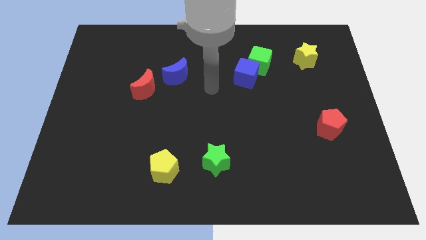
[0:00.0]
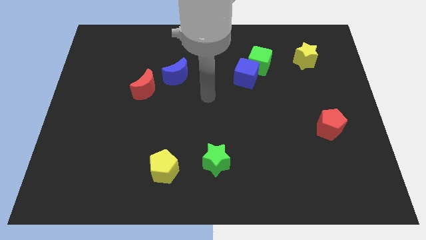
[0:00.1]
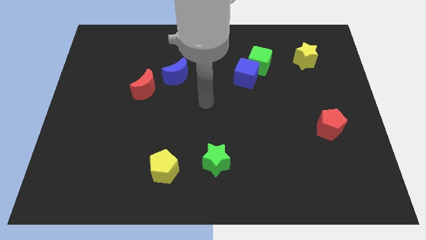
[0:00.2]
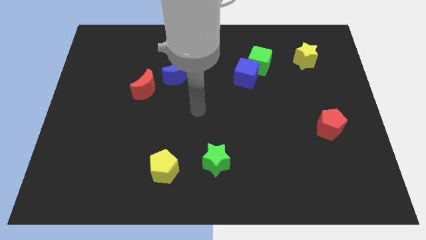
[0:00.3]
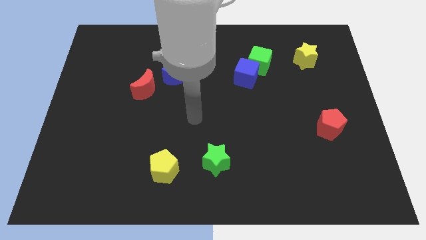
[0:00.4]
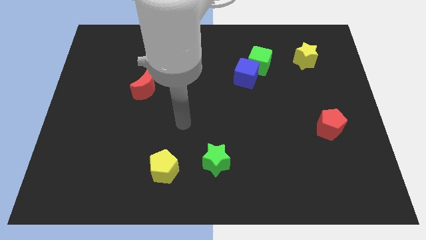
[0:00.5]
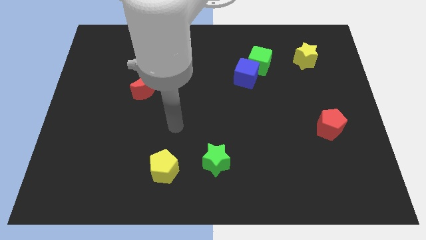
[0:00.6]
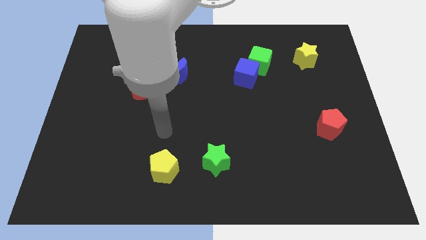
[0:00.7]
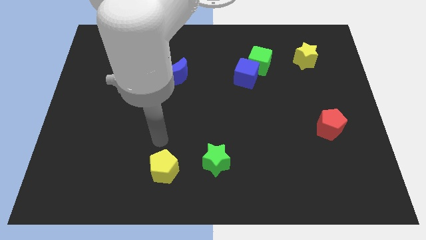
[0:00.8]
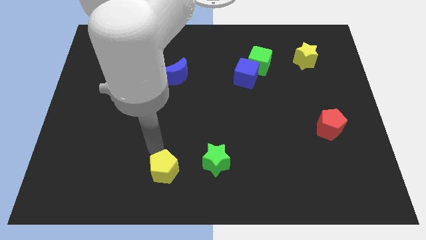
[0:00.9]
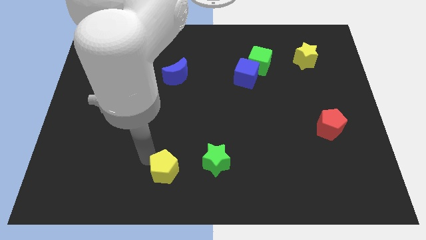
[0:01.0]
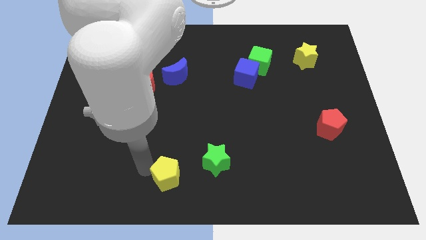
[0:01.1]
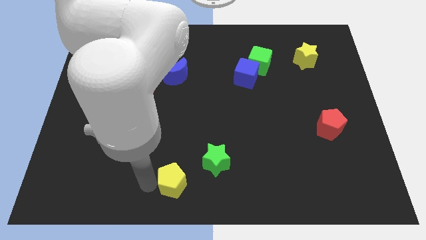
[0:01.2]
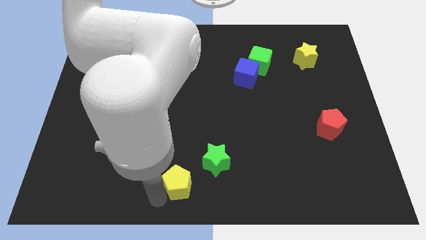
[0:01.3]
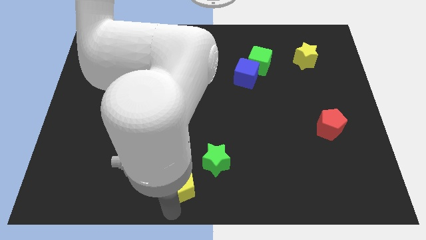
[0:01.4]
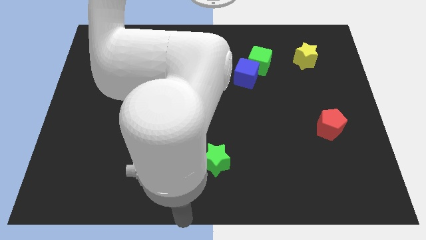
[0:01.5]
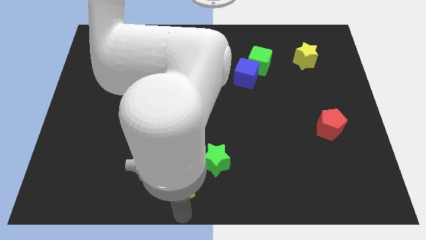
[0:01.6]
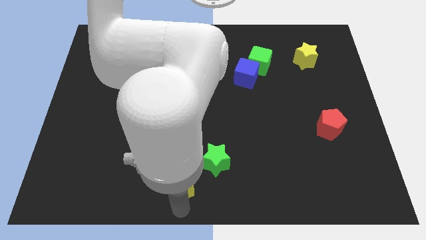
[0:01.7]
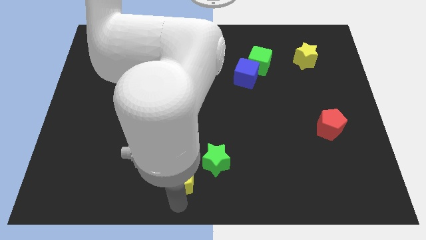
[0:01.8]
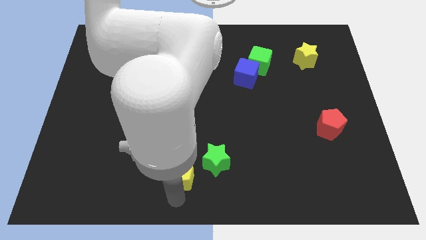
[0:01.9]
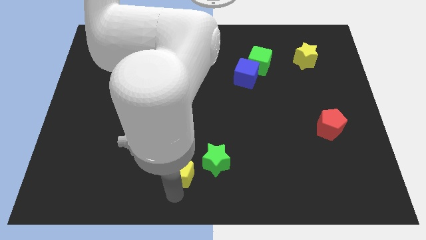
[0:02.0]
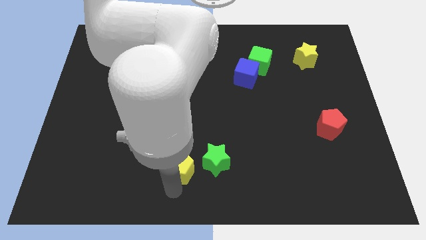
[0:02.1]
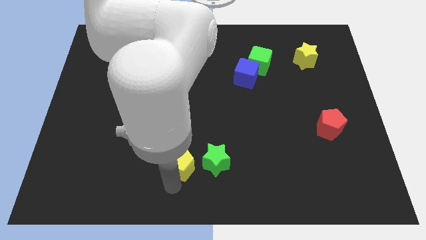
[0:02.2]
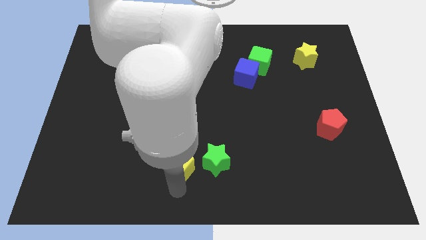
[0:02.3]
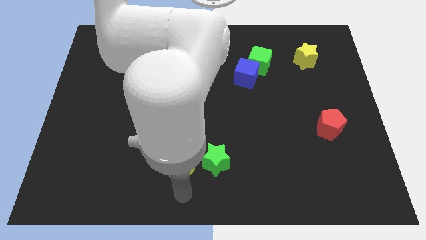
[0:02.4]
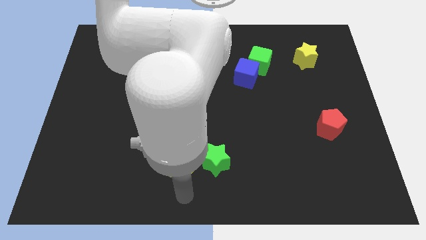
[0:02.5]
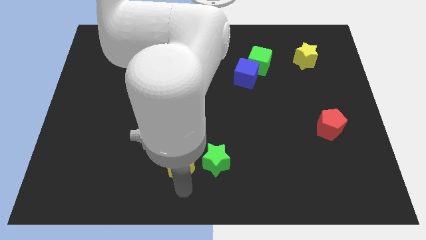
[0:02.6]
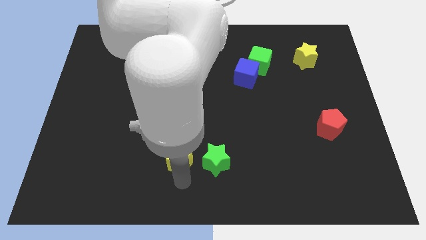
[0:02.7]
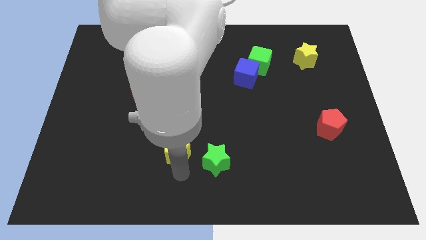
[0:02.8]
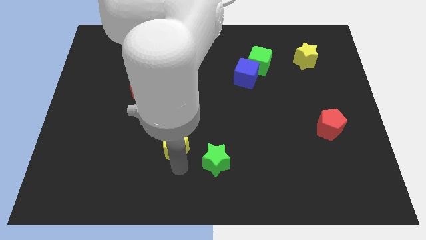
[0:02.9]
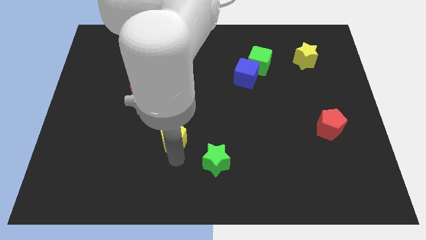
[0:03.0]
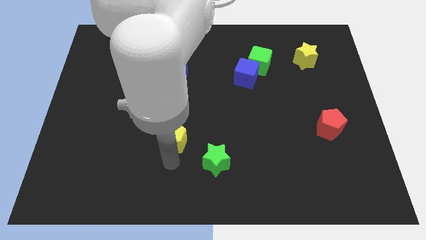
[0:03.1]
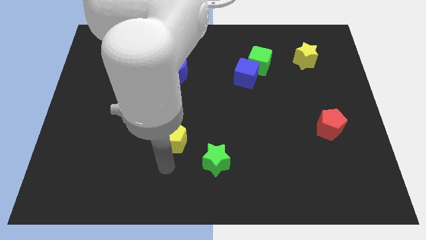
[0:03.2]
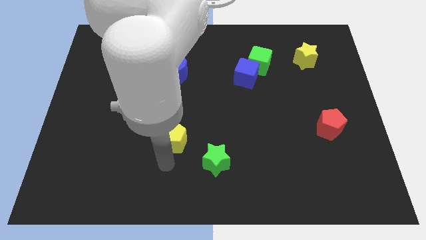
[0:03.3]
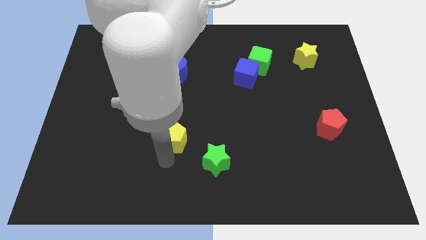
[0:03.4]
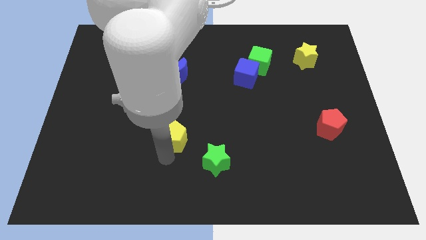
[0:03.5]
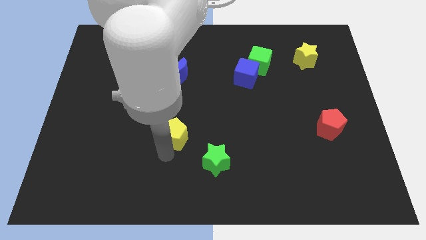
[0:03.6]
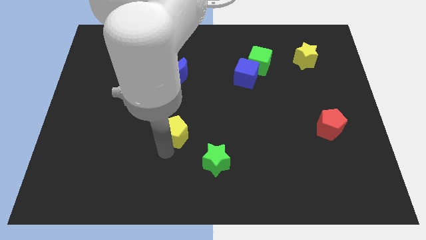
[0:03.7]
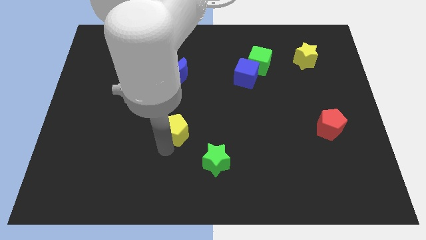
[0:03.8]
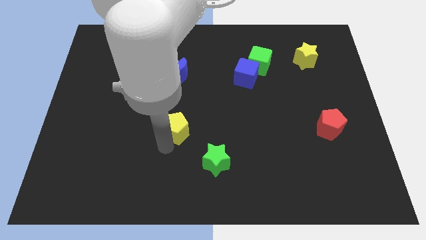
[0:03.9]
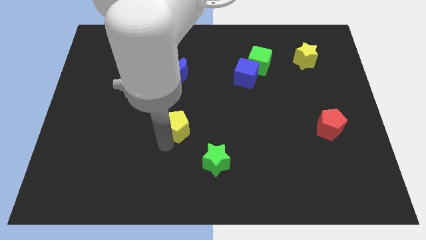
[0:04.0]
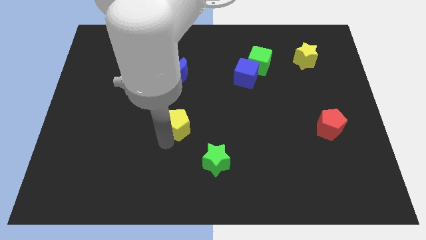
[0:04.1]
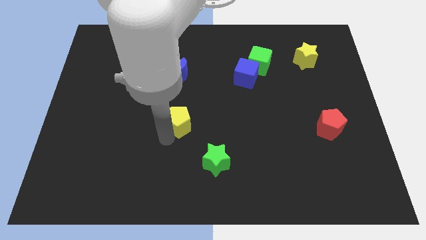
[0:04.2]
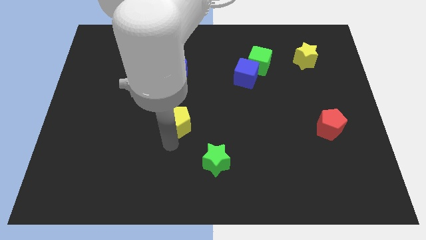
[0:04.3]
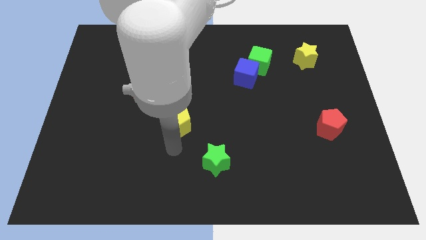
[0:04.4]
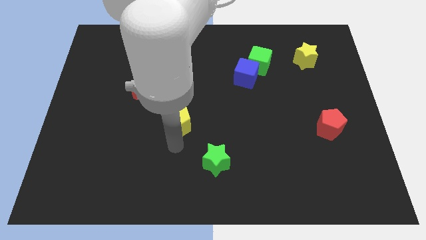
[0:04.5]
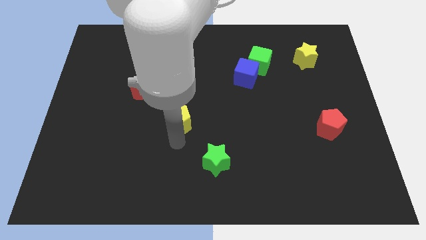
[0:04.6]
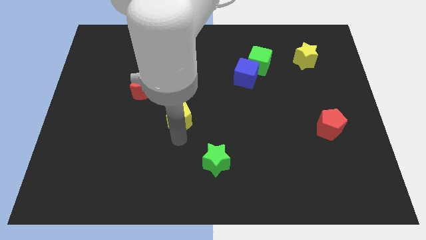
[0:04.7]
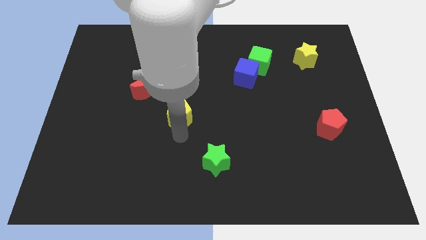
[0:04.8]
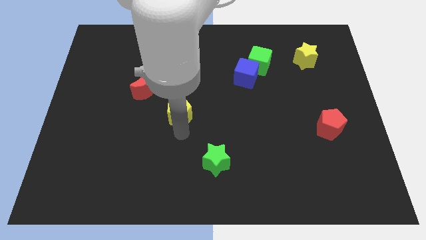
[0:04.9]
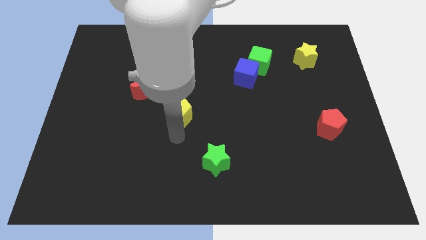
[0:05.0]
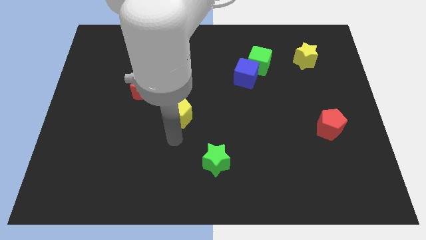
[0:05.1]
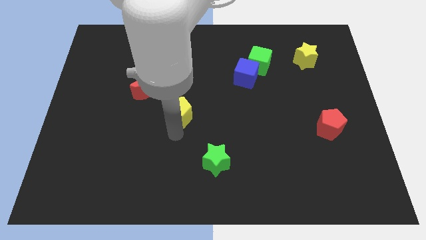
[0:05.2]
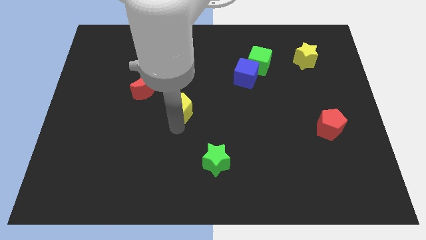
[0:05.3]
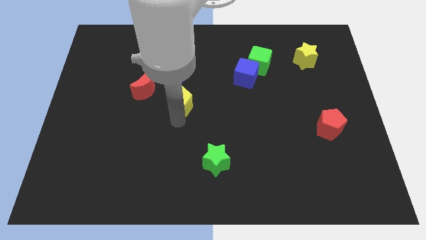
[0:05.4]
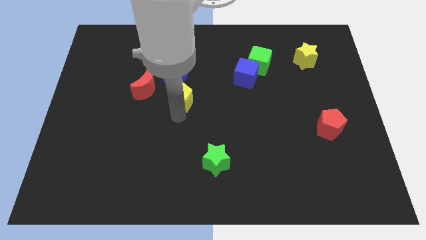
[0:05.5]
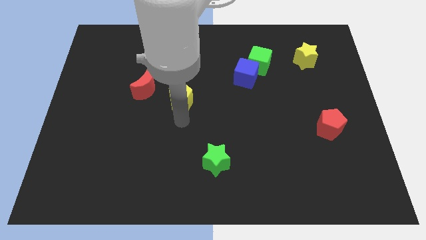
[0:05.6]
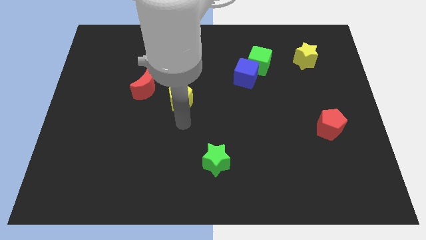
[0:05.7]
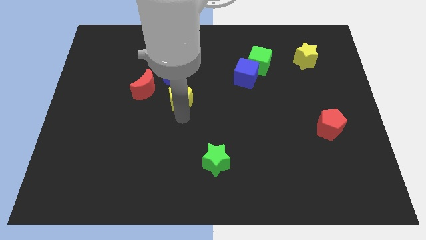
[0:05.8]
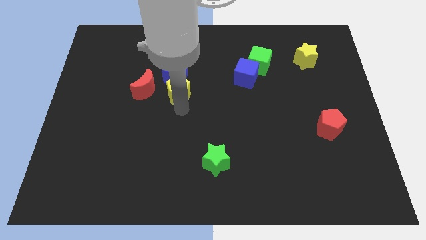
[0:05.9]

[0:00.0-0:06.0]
put the yellow pentagon towards the blue moon

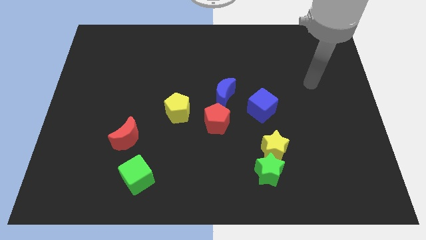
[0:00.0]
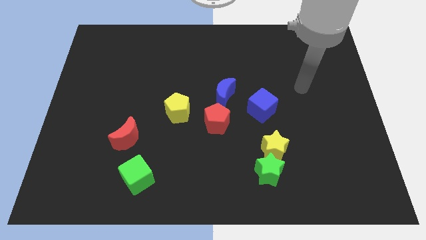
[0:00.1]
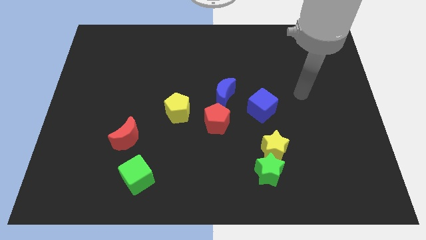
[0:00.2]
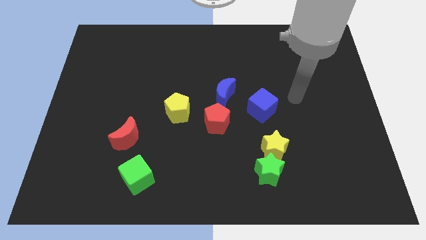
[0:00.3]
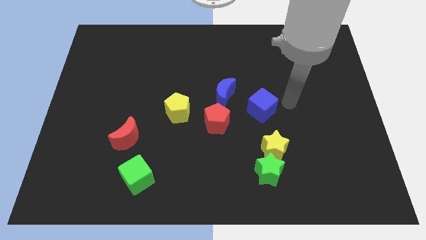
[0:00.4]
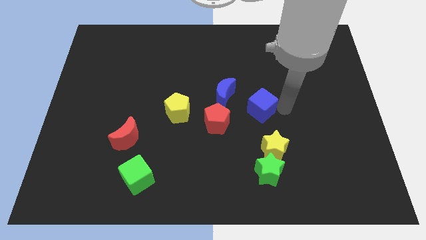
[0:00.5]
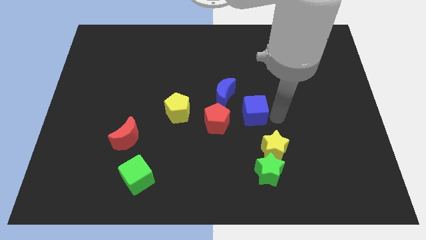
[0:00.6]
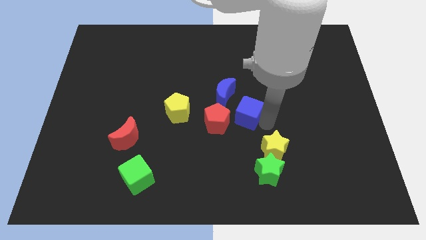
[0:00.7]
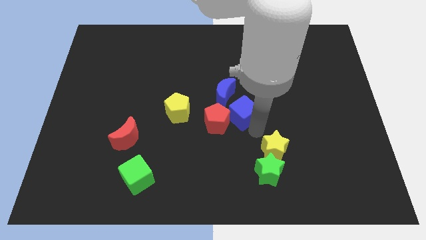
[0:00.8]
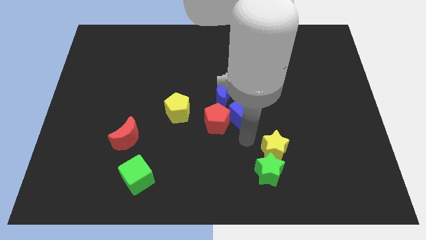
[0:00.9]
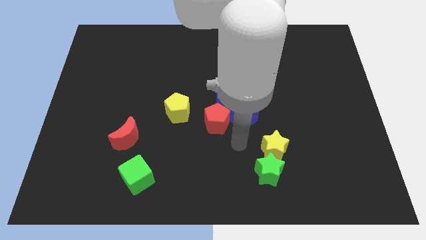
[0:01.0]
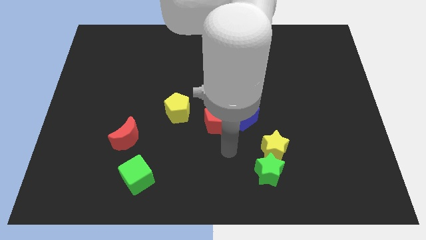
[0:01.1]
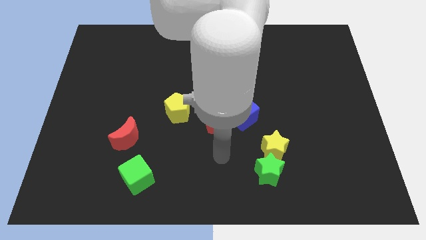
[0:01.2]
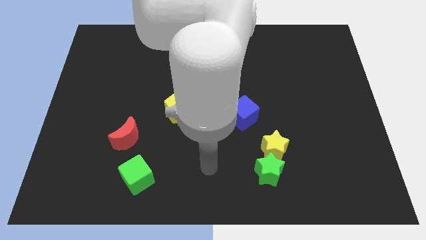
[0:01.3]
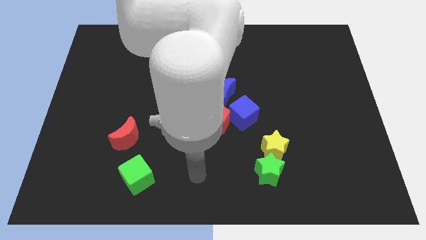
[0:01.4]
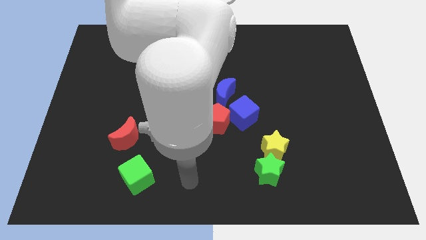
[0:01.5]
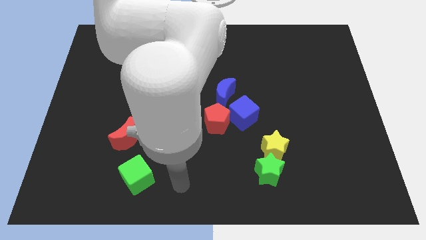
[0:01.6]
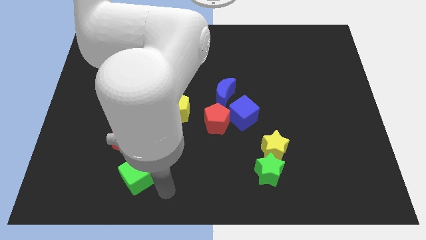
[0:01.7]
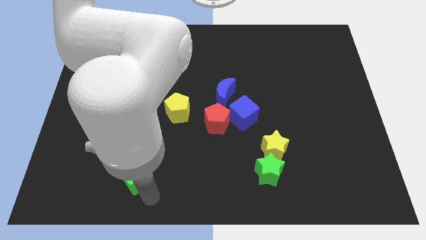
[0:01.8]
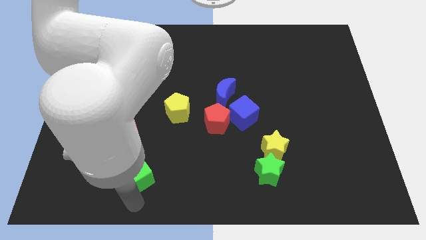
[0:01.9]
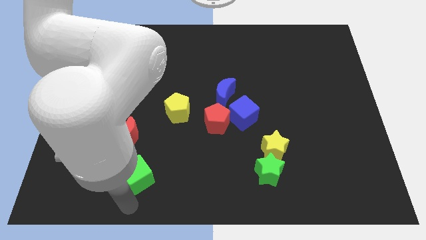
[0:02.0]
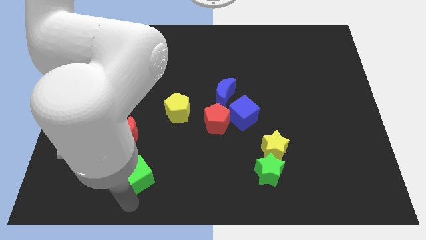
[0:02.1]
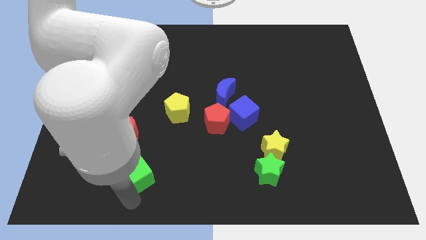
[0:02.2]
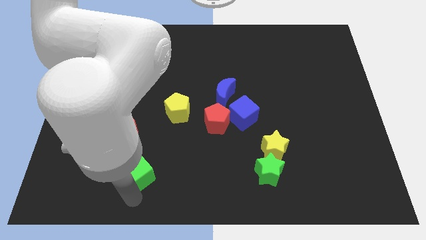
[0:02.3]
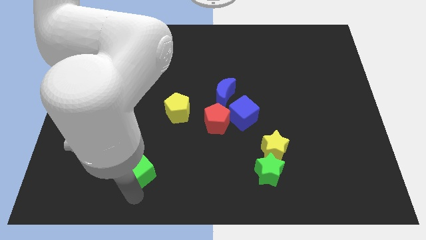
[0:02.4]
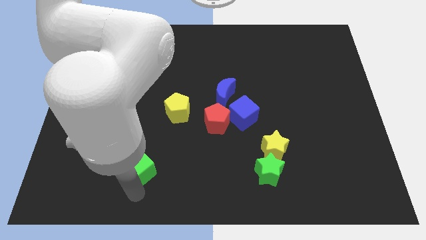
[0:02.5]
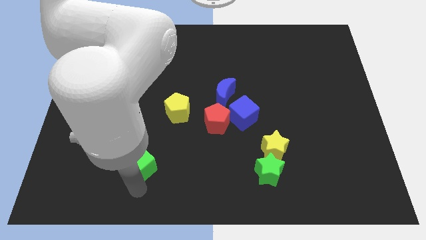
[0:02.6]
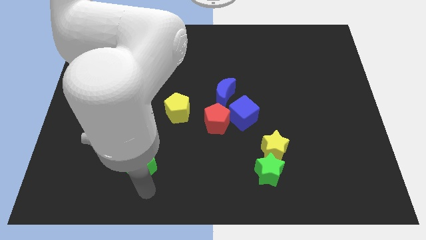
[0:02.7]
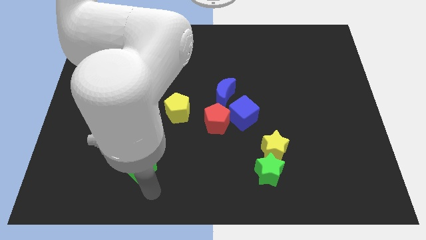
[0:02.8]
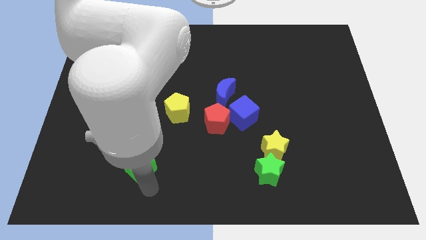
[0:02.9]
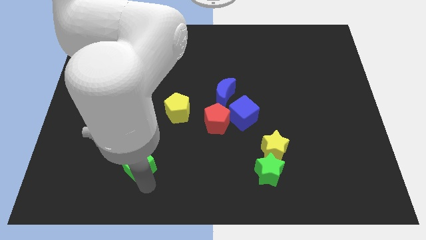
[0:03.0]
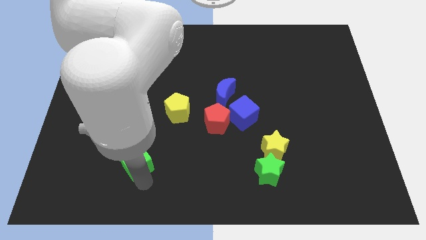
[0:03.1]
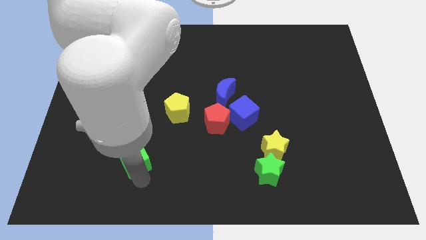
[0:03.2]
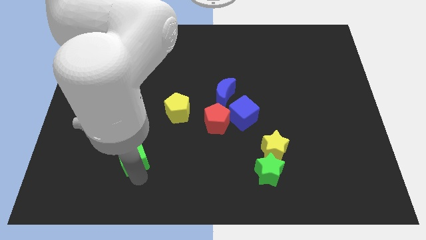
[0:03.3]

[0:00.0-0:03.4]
put the green cube next to the red moon
